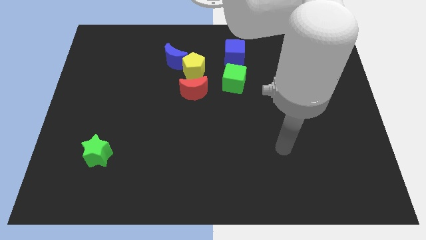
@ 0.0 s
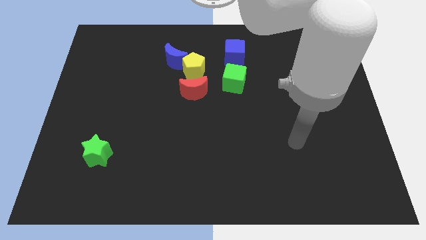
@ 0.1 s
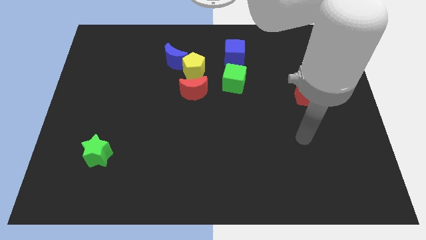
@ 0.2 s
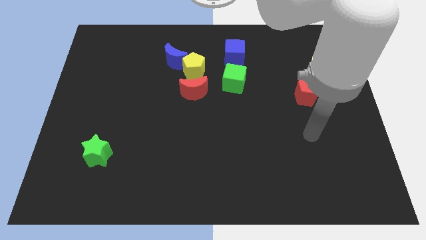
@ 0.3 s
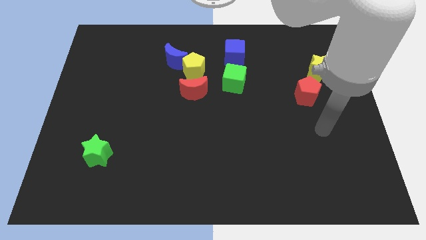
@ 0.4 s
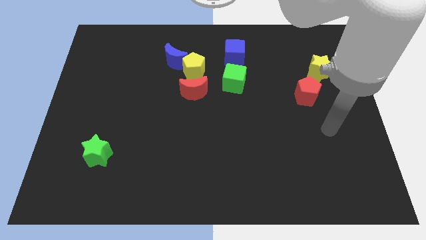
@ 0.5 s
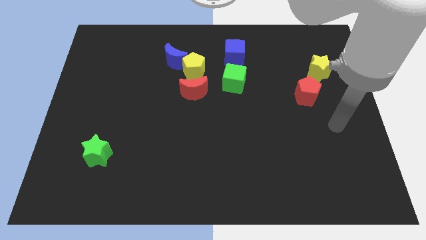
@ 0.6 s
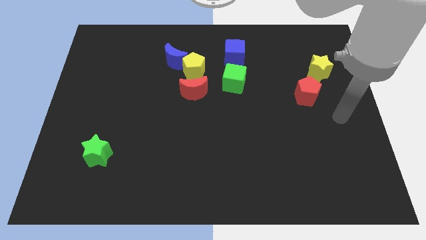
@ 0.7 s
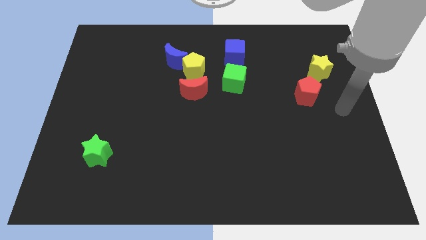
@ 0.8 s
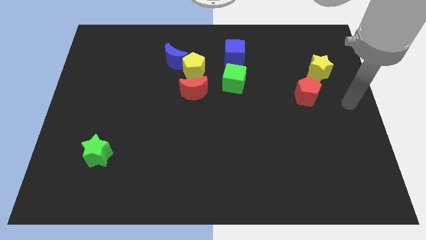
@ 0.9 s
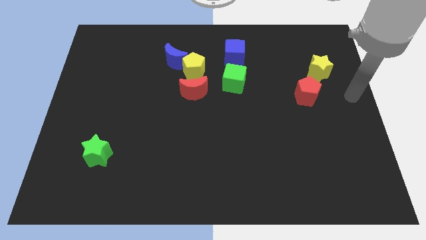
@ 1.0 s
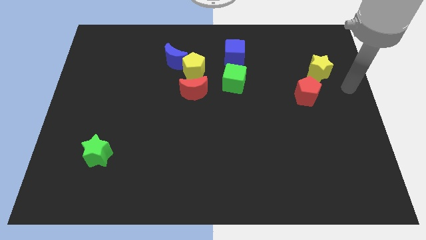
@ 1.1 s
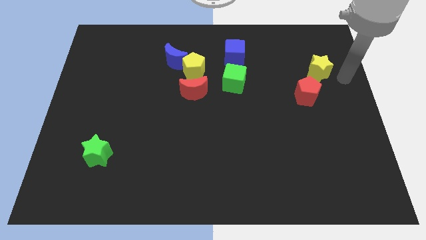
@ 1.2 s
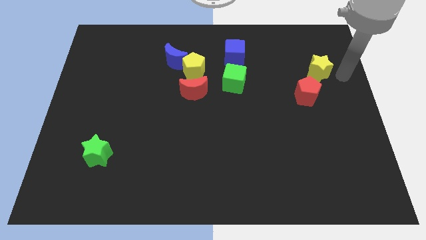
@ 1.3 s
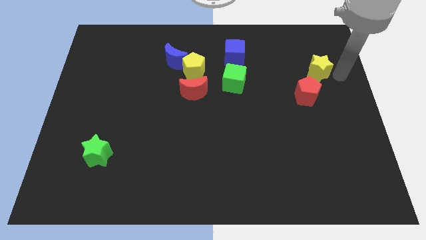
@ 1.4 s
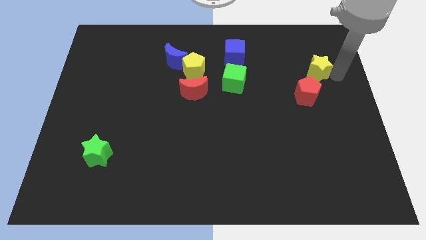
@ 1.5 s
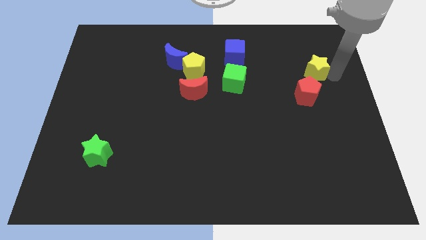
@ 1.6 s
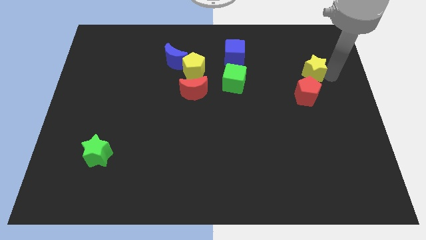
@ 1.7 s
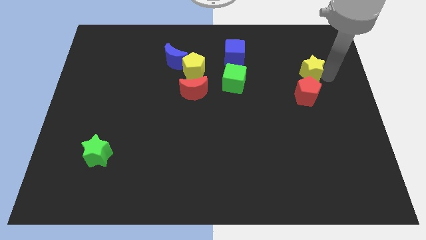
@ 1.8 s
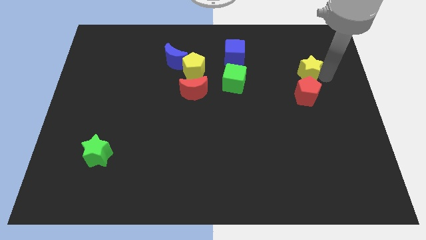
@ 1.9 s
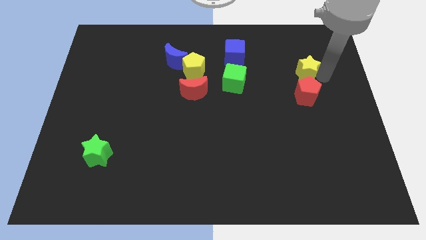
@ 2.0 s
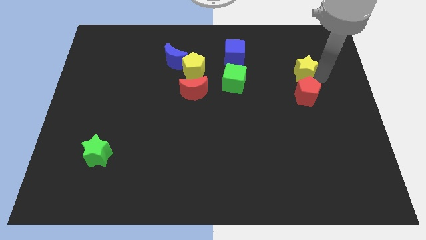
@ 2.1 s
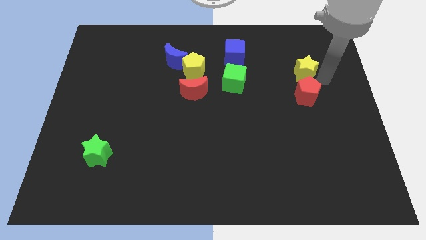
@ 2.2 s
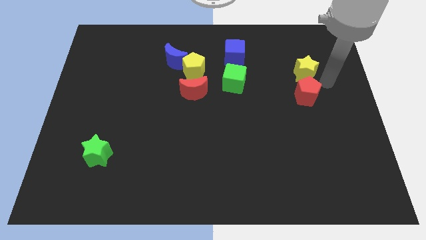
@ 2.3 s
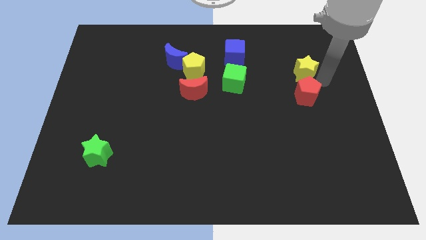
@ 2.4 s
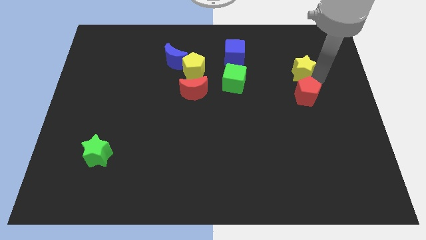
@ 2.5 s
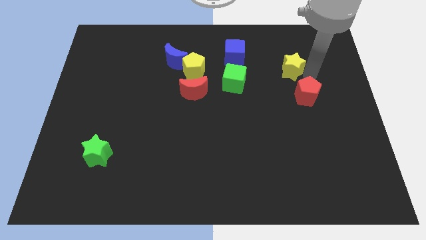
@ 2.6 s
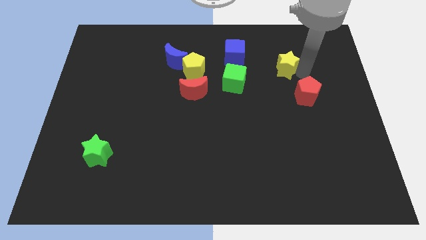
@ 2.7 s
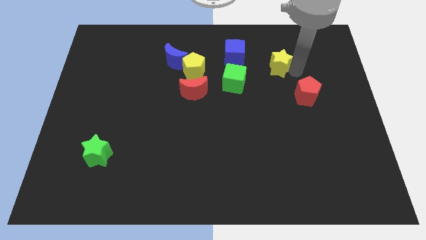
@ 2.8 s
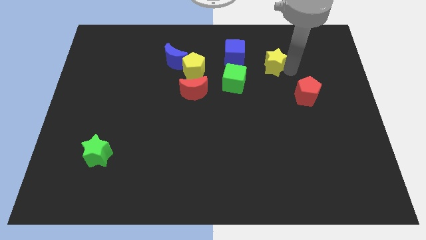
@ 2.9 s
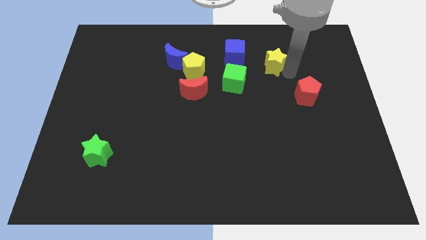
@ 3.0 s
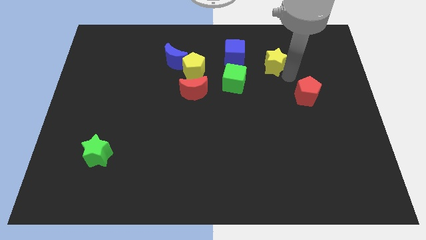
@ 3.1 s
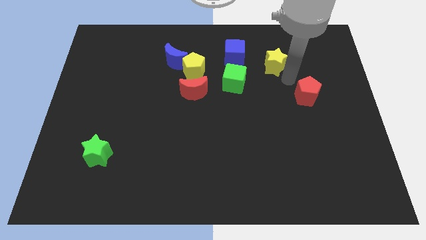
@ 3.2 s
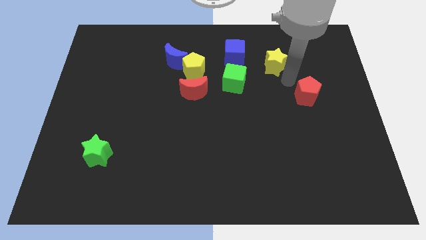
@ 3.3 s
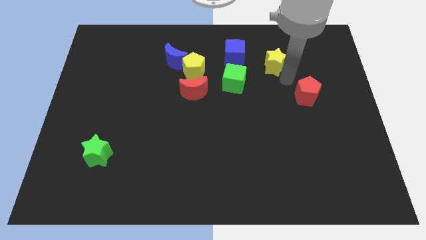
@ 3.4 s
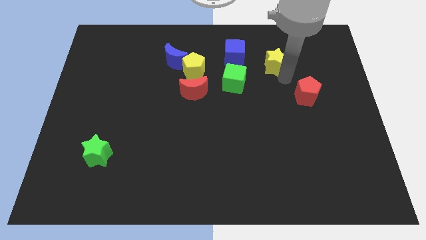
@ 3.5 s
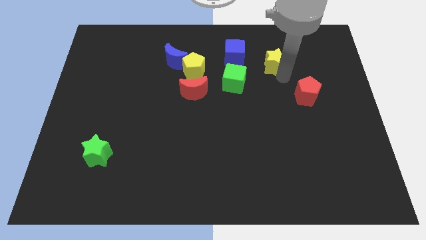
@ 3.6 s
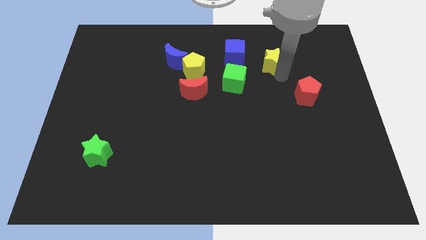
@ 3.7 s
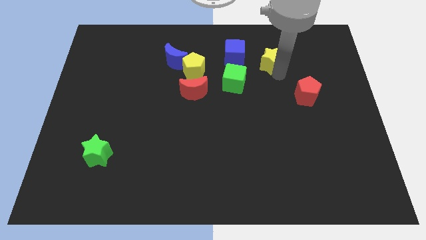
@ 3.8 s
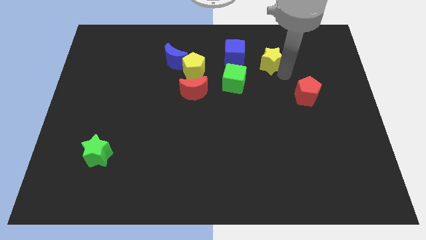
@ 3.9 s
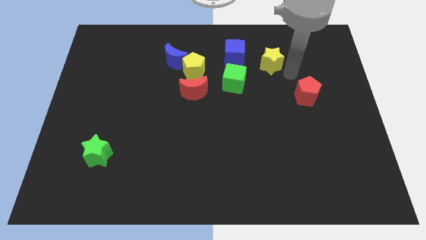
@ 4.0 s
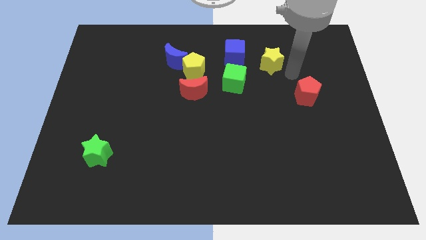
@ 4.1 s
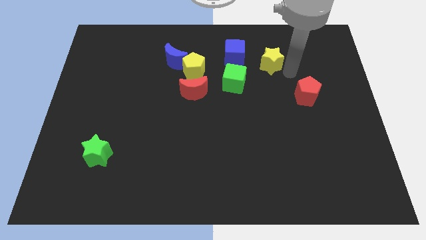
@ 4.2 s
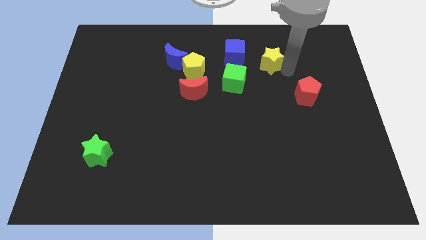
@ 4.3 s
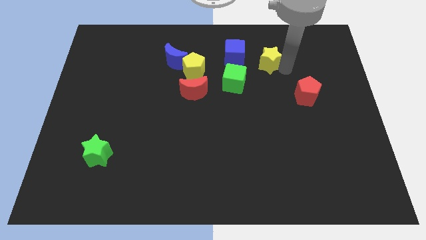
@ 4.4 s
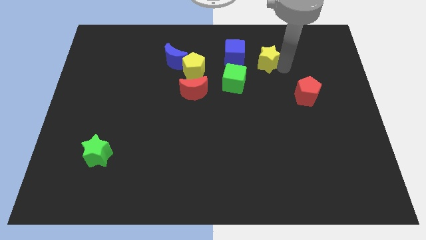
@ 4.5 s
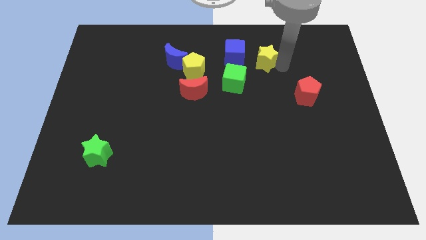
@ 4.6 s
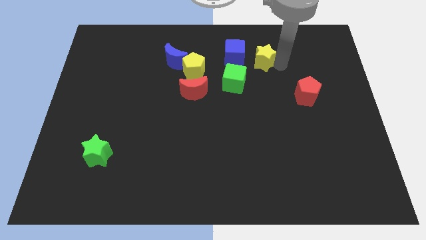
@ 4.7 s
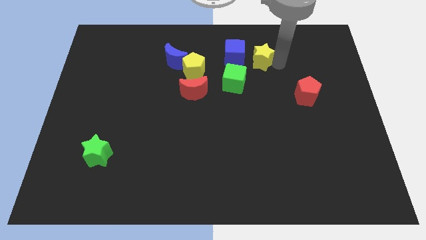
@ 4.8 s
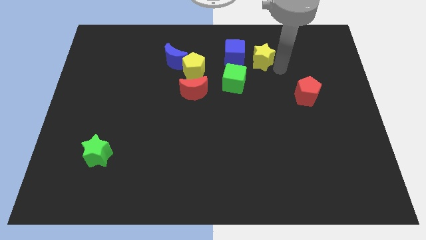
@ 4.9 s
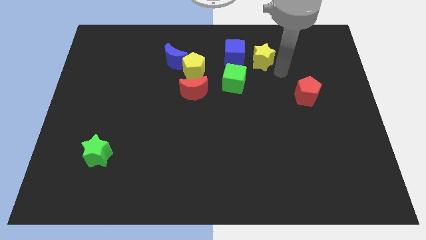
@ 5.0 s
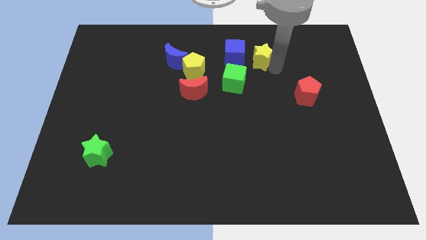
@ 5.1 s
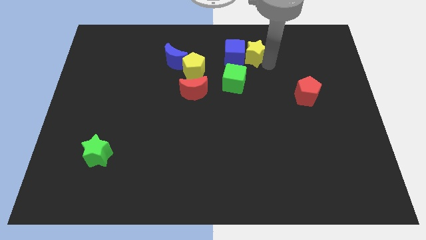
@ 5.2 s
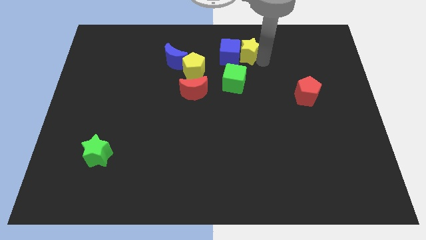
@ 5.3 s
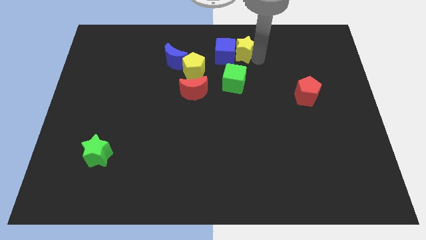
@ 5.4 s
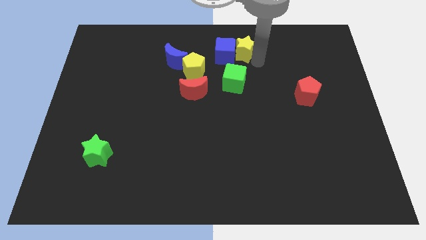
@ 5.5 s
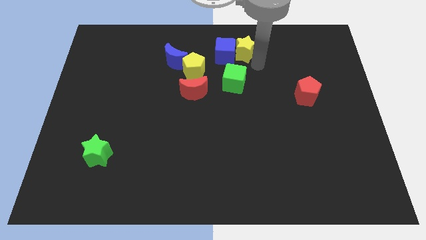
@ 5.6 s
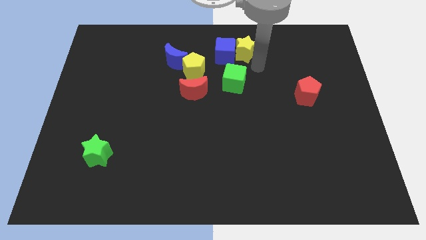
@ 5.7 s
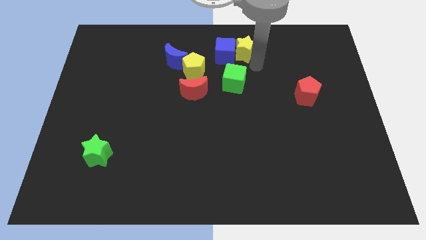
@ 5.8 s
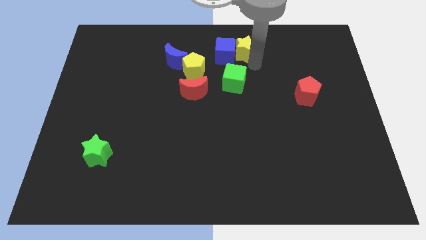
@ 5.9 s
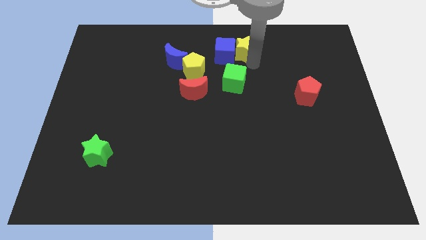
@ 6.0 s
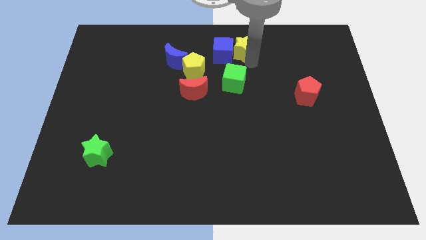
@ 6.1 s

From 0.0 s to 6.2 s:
put the yellow star to the top side

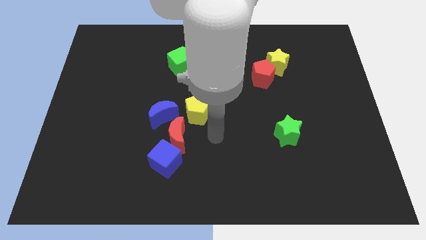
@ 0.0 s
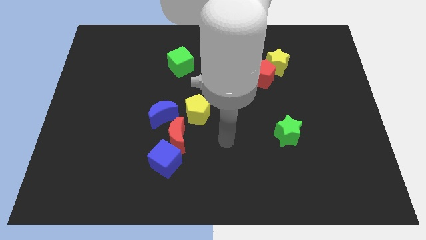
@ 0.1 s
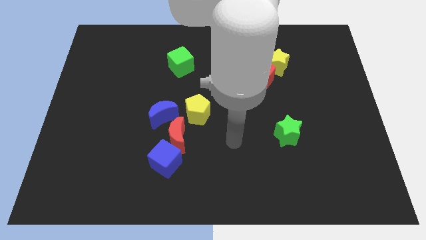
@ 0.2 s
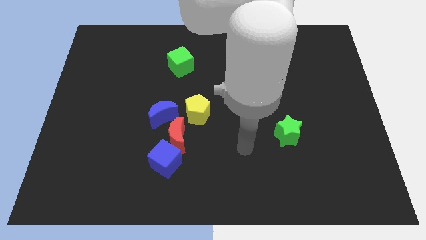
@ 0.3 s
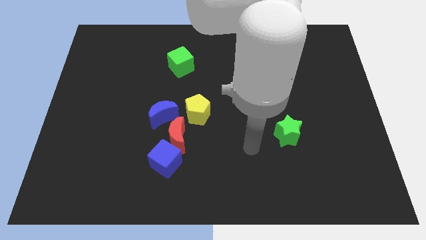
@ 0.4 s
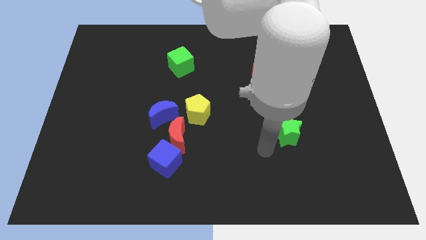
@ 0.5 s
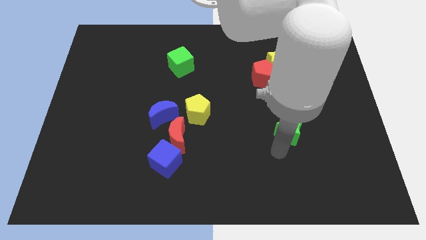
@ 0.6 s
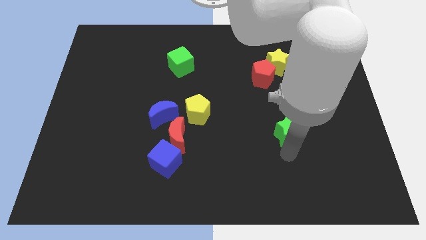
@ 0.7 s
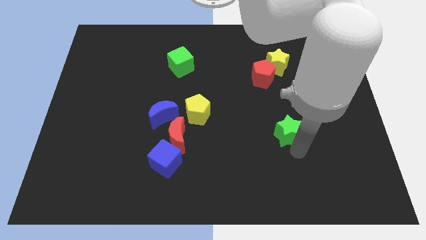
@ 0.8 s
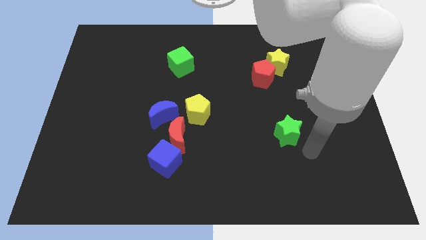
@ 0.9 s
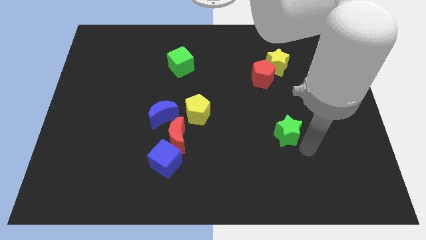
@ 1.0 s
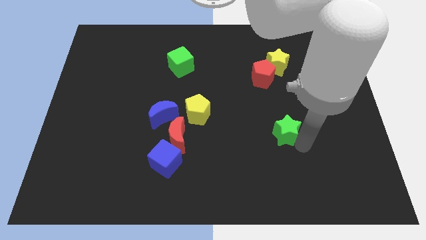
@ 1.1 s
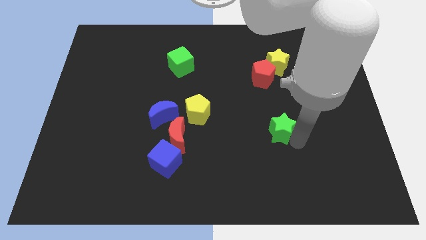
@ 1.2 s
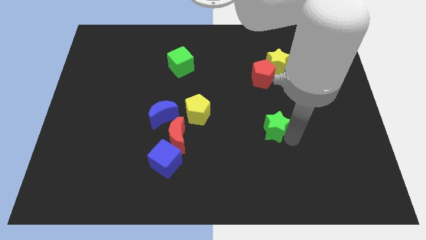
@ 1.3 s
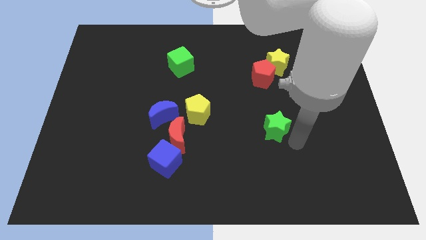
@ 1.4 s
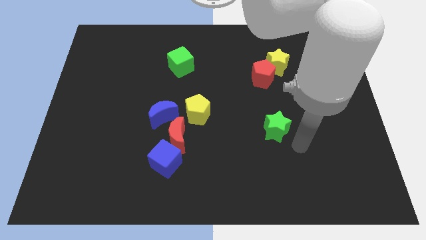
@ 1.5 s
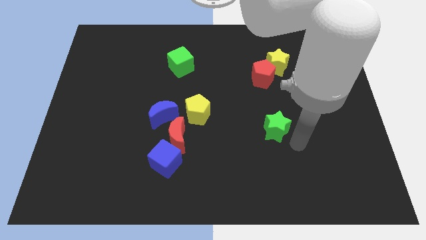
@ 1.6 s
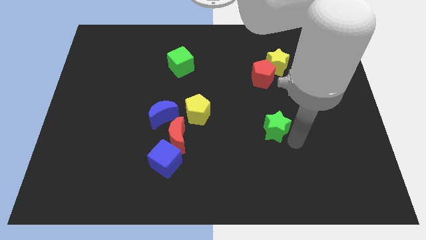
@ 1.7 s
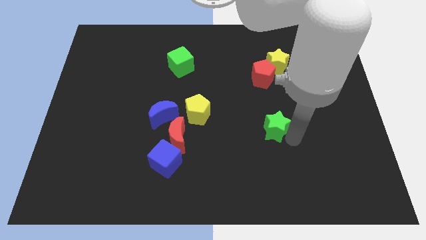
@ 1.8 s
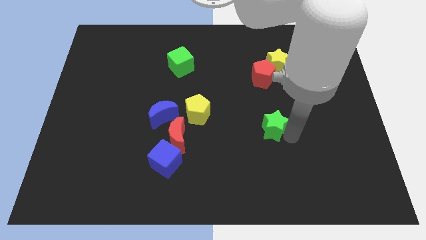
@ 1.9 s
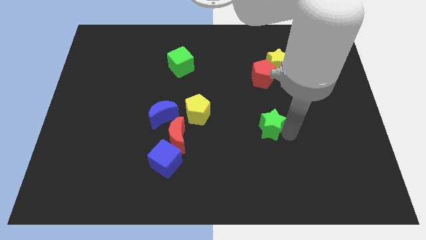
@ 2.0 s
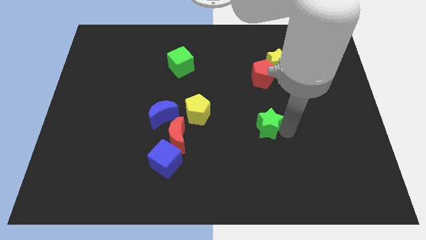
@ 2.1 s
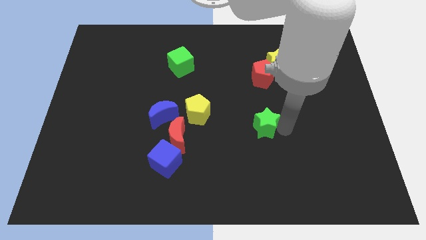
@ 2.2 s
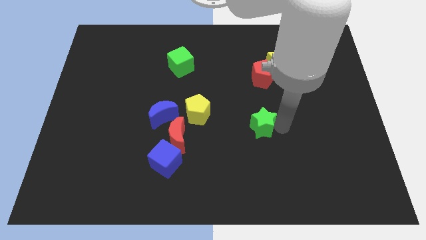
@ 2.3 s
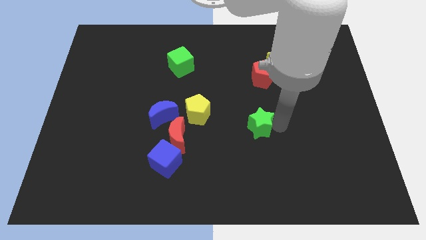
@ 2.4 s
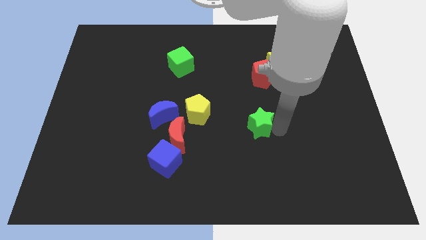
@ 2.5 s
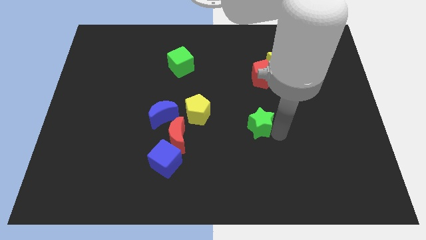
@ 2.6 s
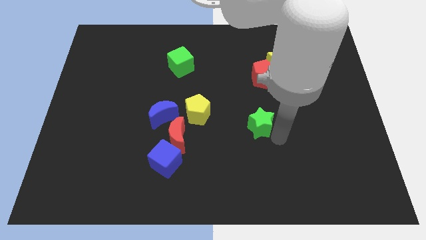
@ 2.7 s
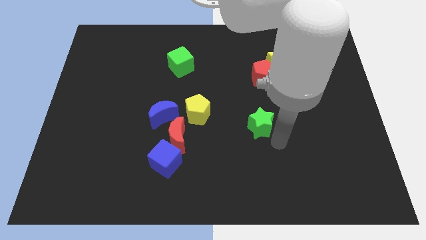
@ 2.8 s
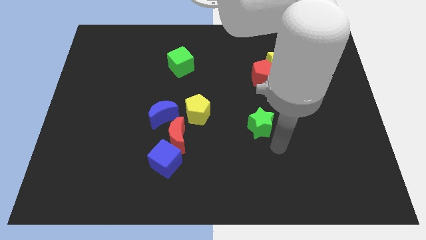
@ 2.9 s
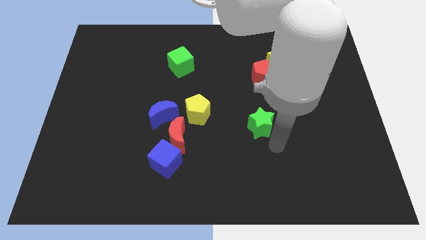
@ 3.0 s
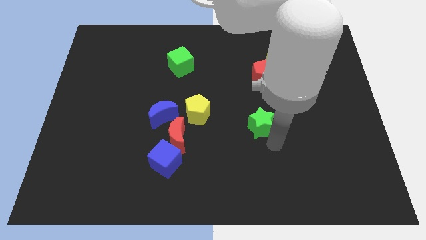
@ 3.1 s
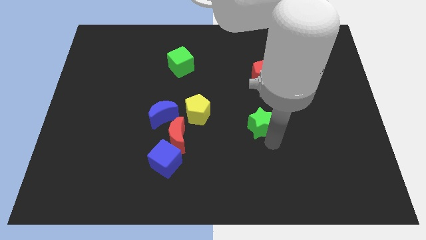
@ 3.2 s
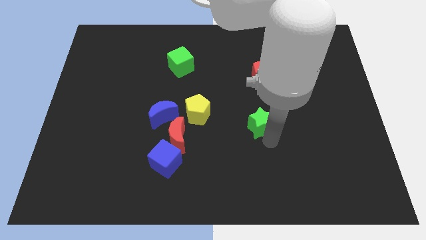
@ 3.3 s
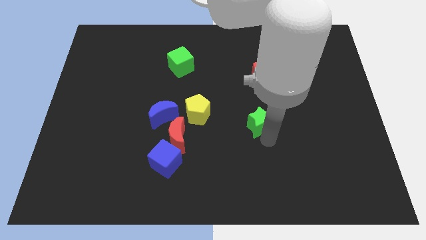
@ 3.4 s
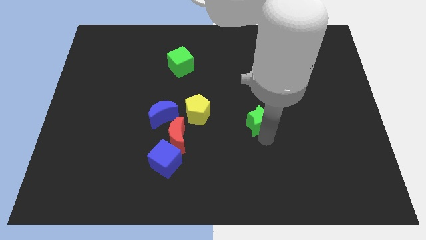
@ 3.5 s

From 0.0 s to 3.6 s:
move the green star to the center of the board
